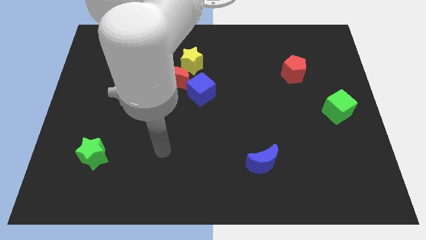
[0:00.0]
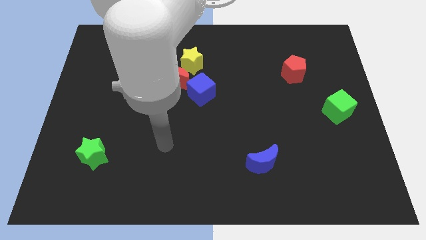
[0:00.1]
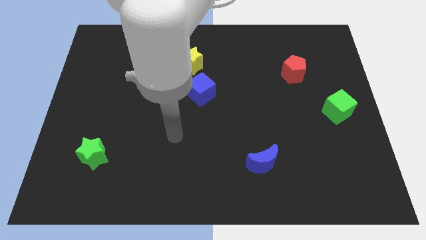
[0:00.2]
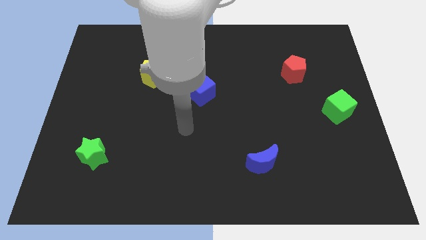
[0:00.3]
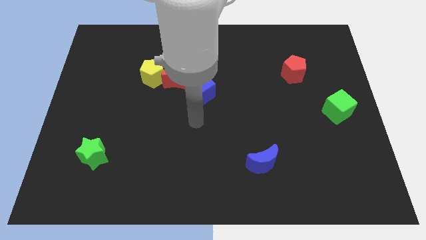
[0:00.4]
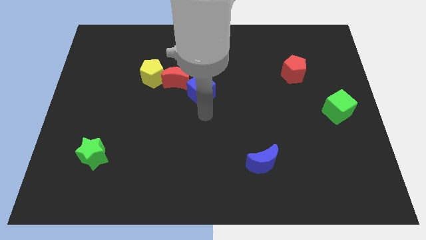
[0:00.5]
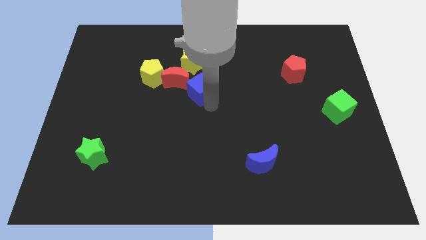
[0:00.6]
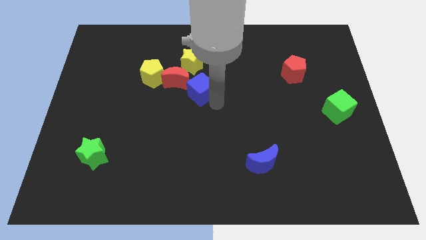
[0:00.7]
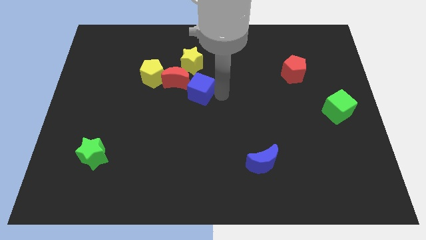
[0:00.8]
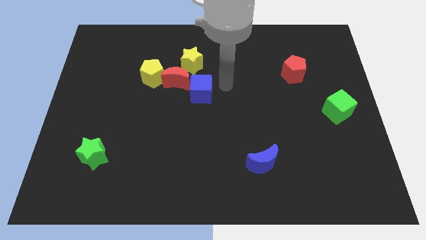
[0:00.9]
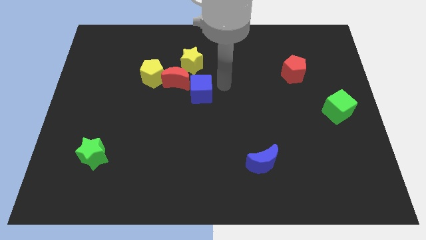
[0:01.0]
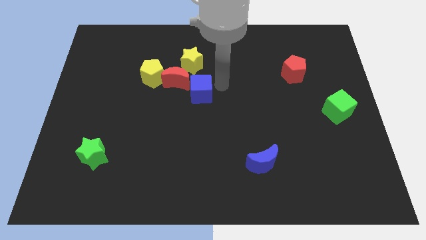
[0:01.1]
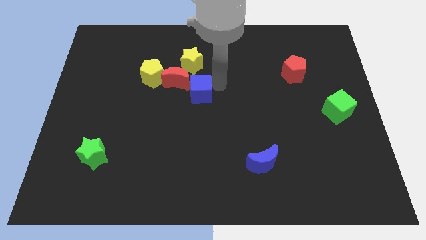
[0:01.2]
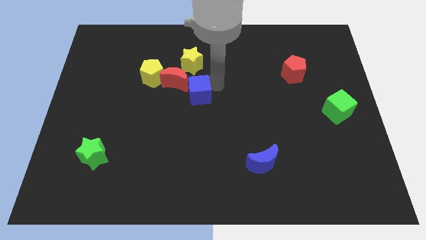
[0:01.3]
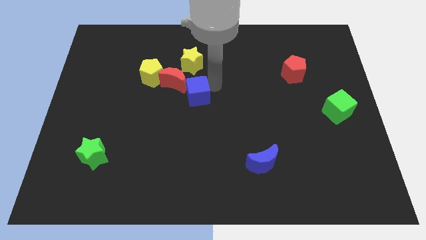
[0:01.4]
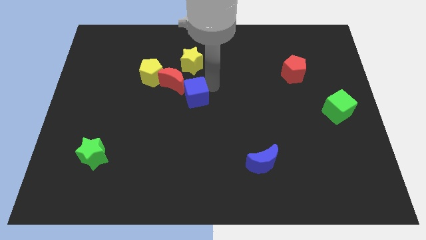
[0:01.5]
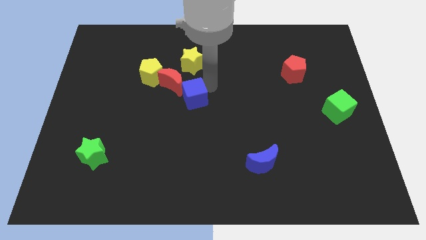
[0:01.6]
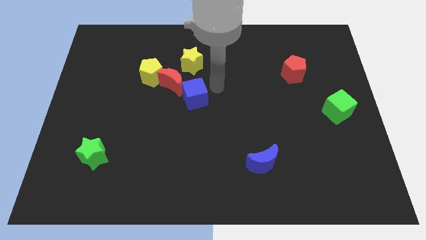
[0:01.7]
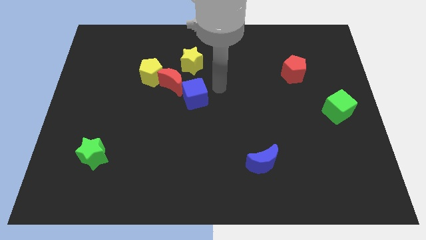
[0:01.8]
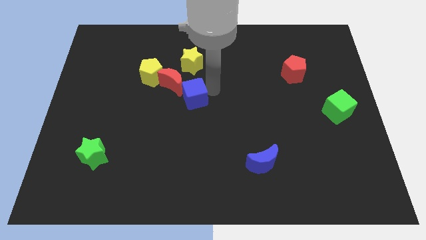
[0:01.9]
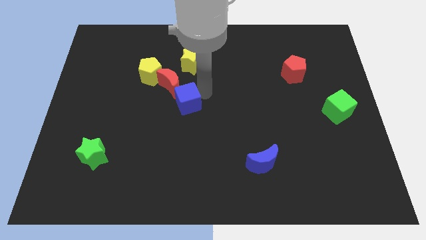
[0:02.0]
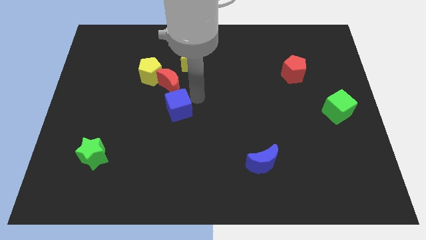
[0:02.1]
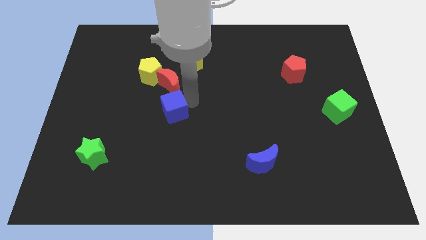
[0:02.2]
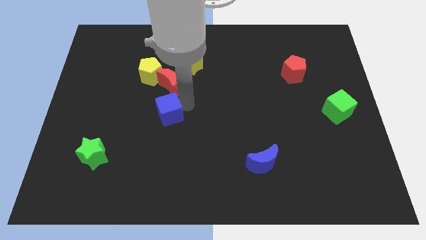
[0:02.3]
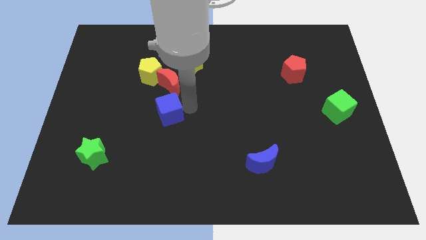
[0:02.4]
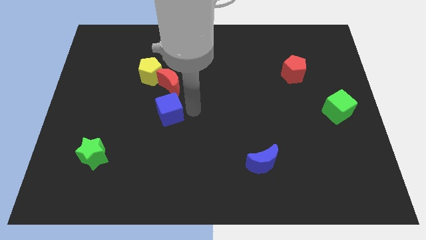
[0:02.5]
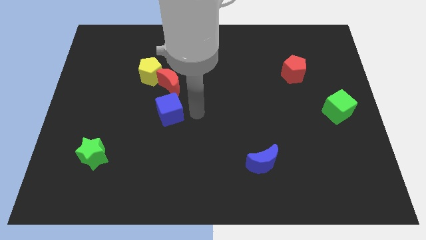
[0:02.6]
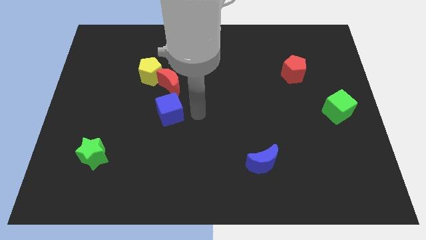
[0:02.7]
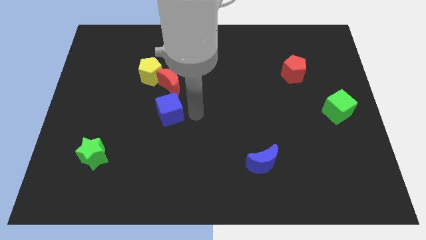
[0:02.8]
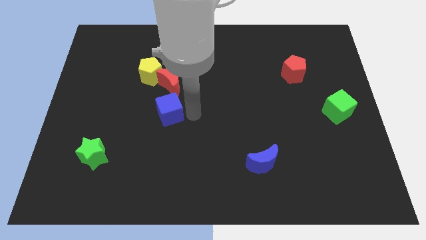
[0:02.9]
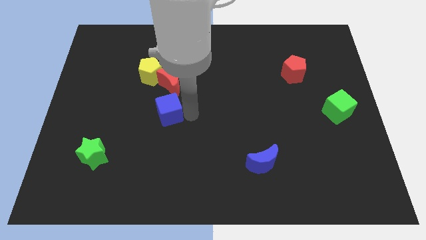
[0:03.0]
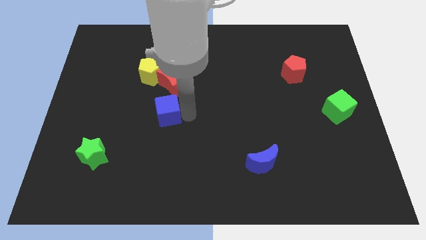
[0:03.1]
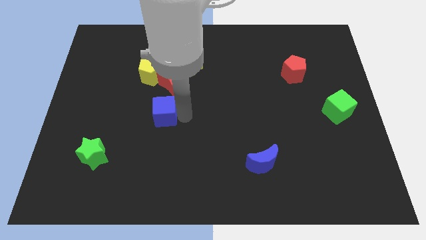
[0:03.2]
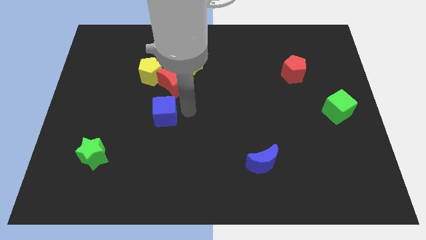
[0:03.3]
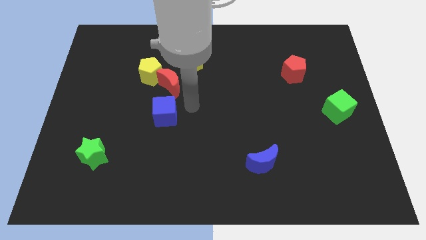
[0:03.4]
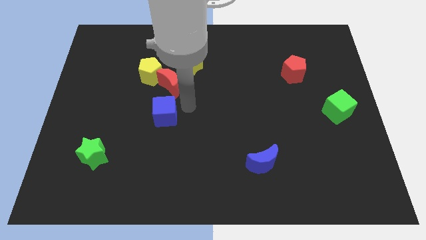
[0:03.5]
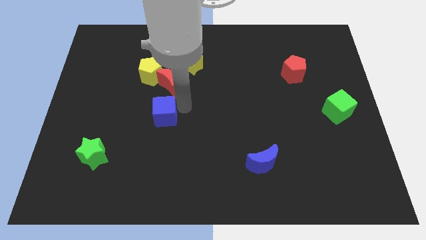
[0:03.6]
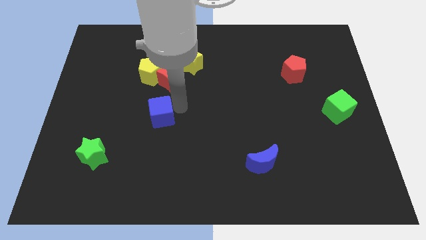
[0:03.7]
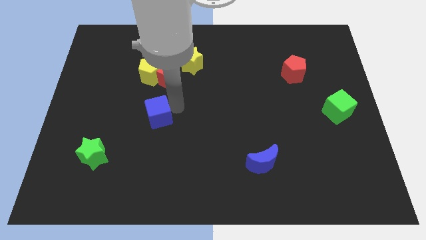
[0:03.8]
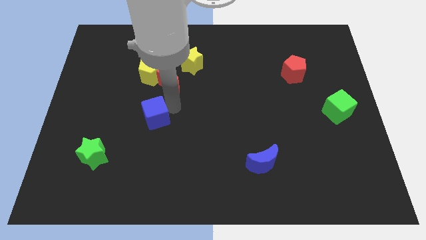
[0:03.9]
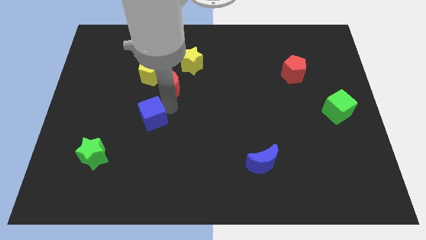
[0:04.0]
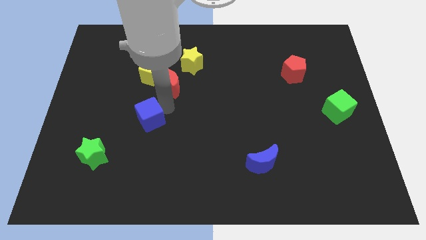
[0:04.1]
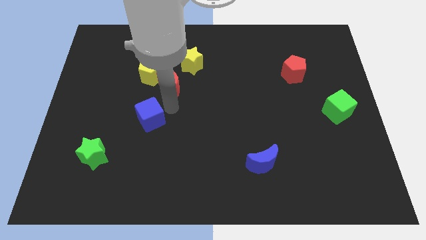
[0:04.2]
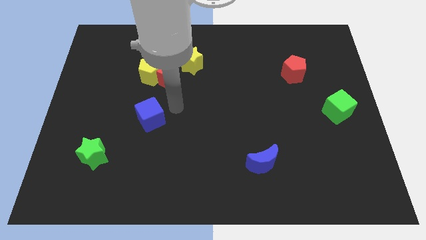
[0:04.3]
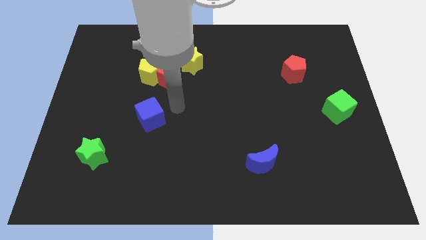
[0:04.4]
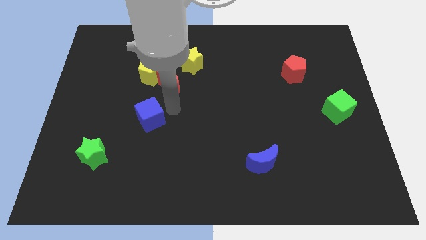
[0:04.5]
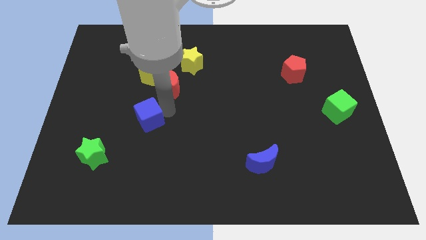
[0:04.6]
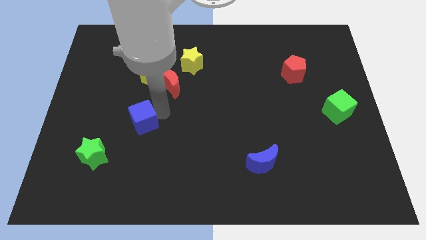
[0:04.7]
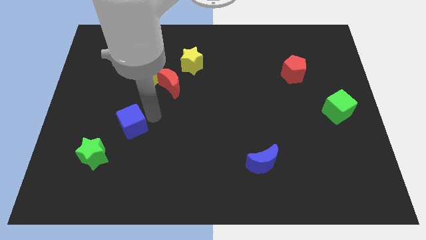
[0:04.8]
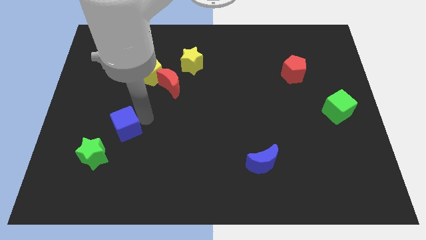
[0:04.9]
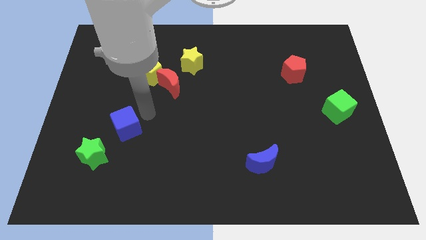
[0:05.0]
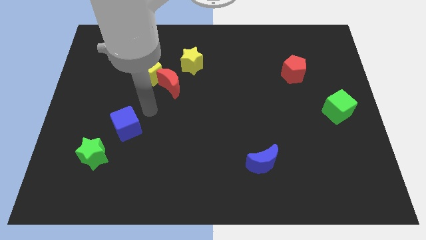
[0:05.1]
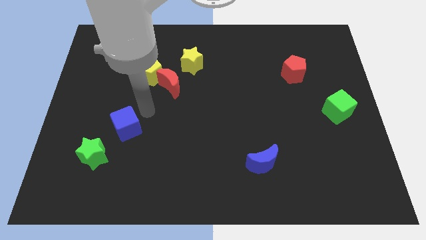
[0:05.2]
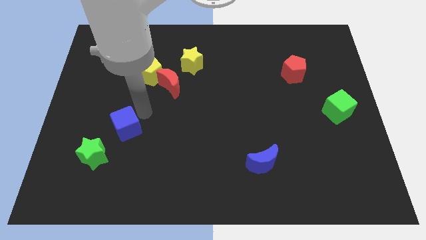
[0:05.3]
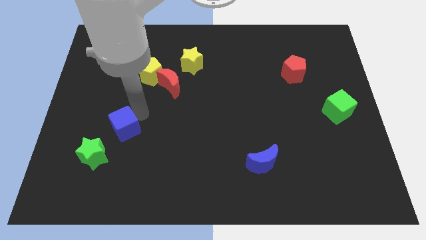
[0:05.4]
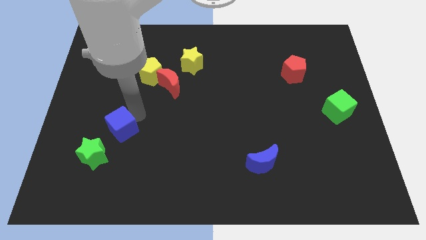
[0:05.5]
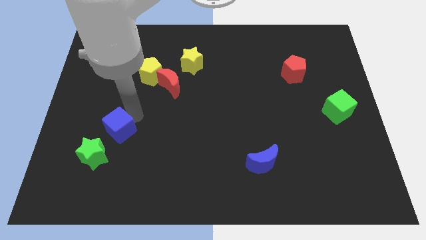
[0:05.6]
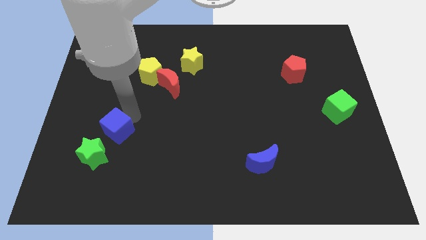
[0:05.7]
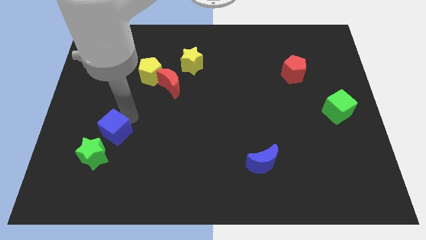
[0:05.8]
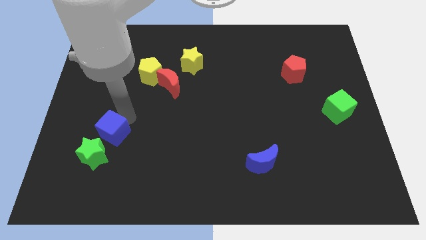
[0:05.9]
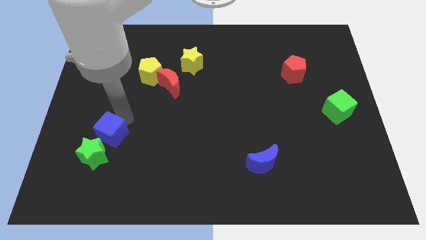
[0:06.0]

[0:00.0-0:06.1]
put the blue cube next to the green star

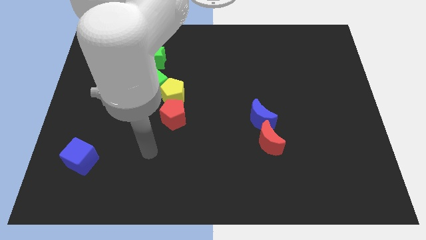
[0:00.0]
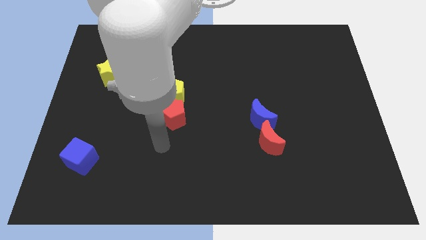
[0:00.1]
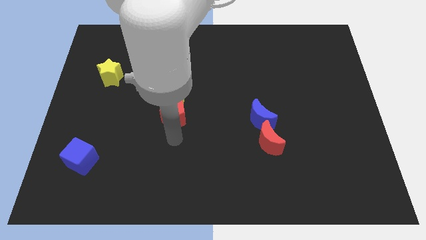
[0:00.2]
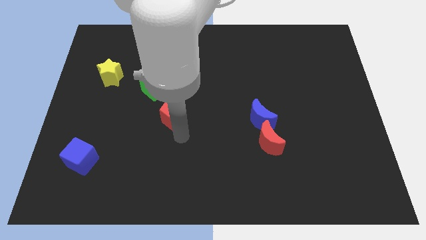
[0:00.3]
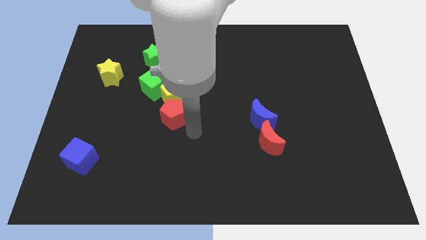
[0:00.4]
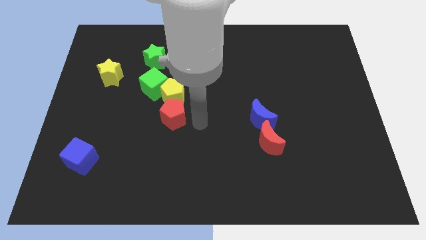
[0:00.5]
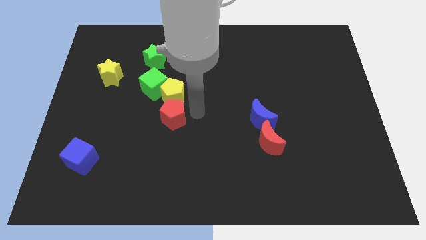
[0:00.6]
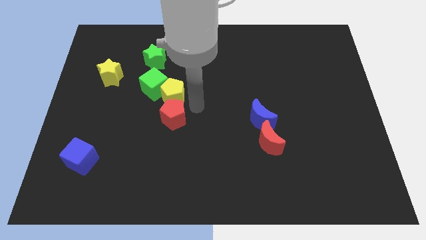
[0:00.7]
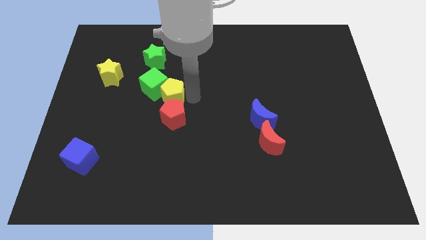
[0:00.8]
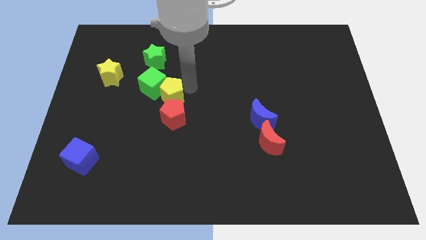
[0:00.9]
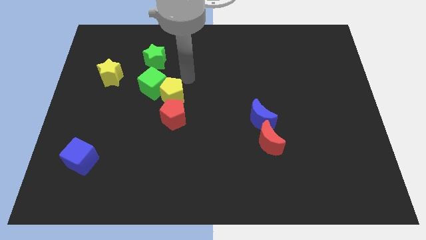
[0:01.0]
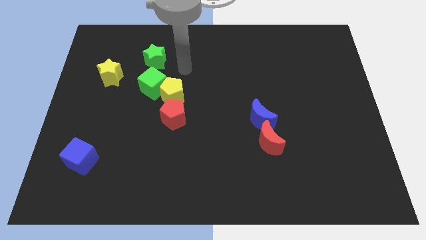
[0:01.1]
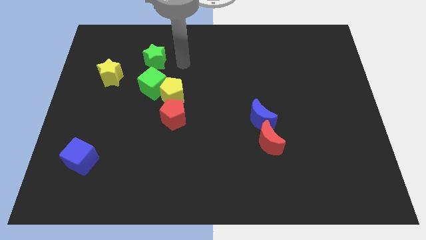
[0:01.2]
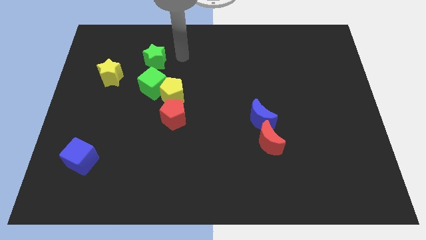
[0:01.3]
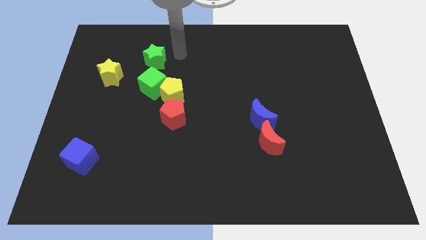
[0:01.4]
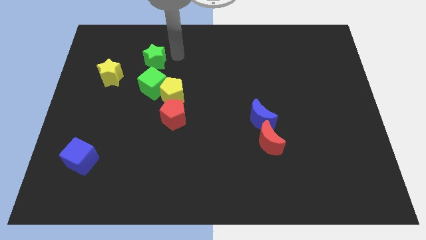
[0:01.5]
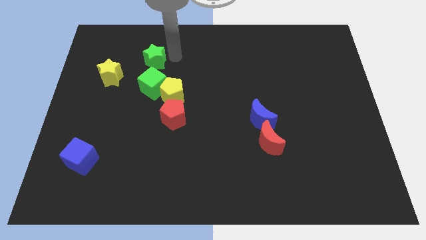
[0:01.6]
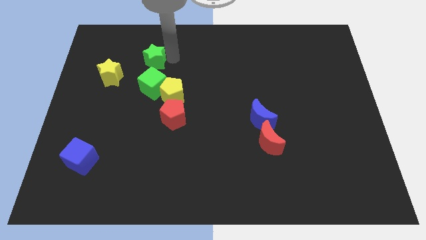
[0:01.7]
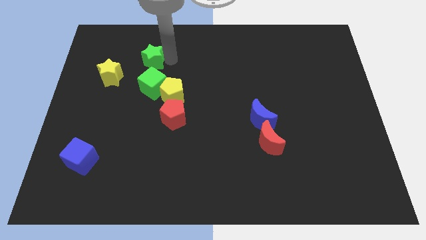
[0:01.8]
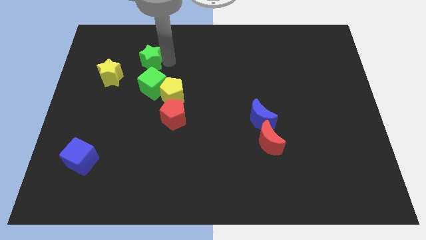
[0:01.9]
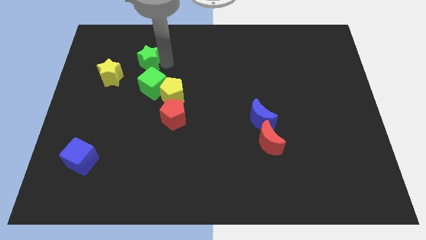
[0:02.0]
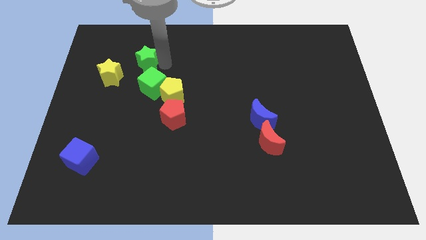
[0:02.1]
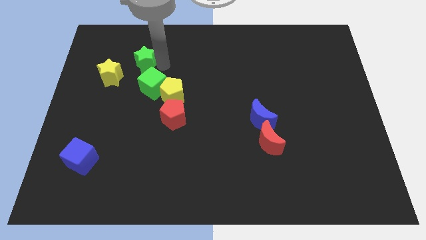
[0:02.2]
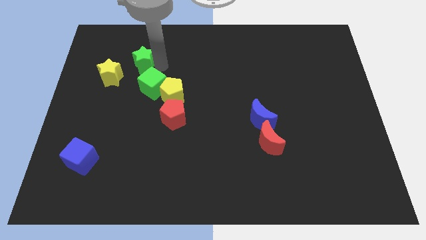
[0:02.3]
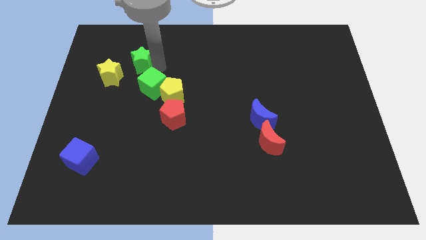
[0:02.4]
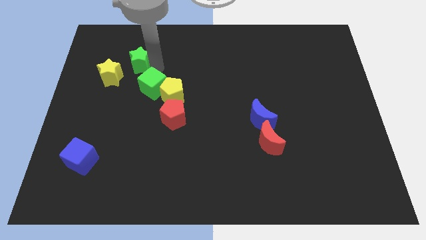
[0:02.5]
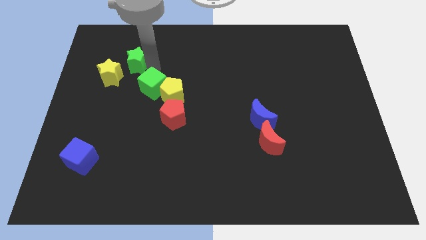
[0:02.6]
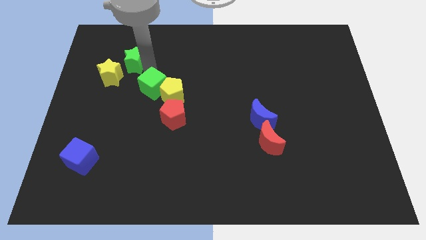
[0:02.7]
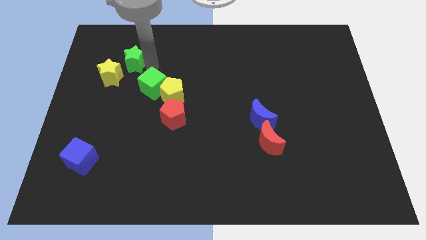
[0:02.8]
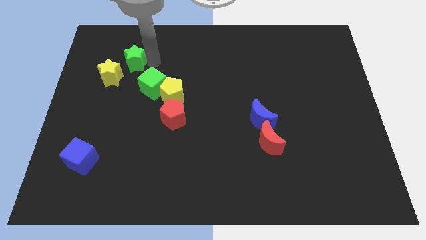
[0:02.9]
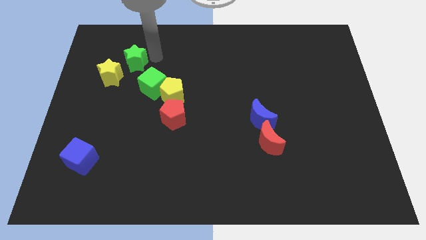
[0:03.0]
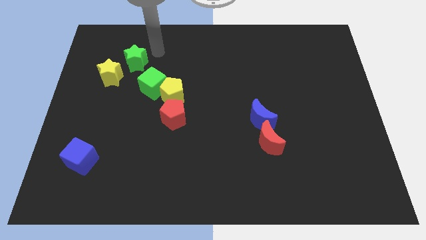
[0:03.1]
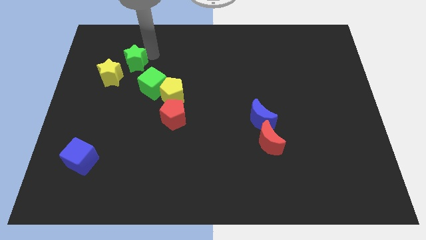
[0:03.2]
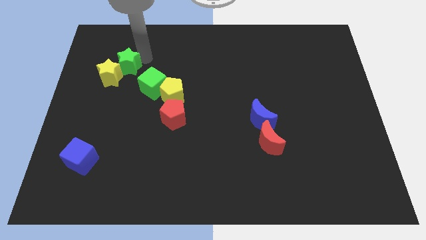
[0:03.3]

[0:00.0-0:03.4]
push the green star next to the yellow star
